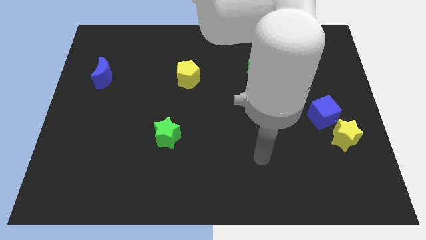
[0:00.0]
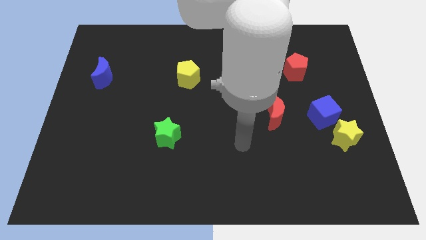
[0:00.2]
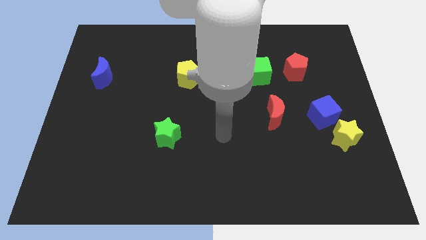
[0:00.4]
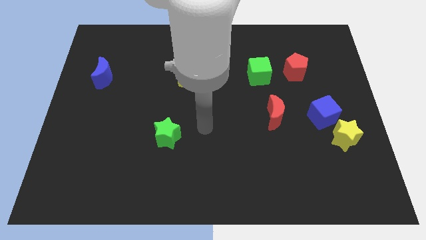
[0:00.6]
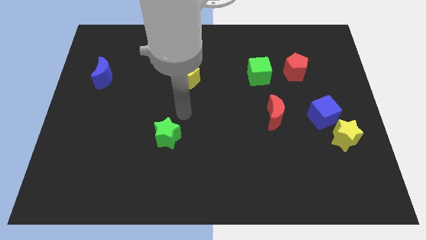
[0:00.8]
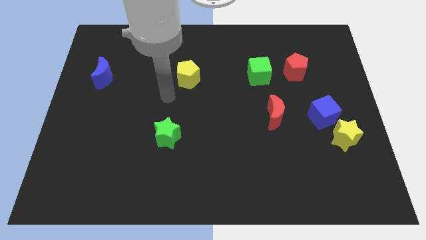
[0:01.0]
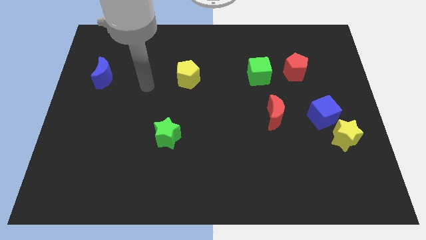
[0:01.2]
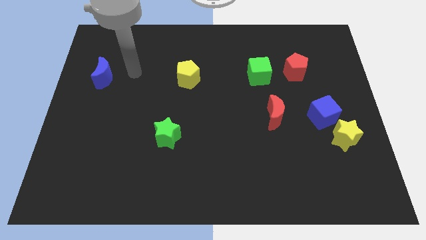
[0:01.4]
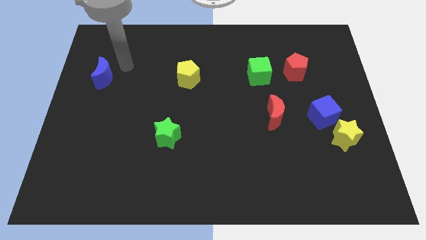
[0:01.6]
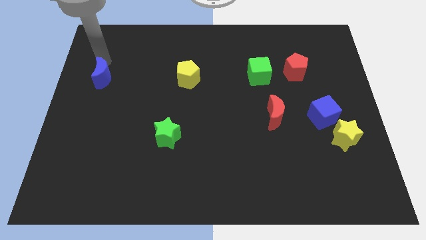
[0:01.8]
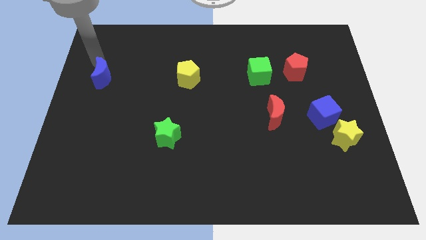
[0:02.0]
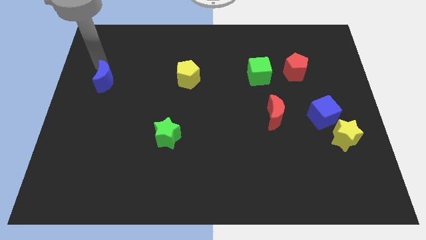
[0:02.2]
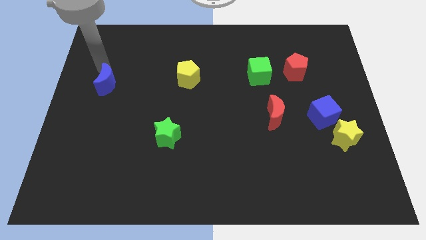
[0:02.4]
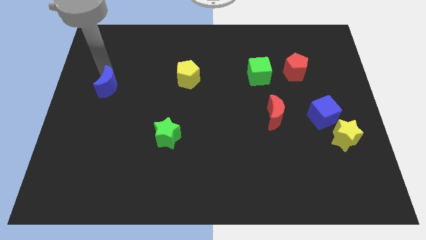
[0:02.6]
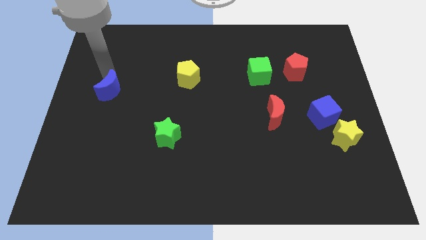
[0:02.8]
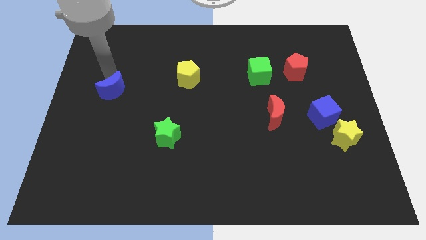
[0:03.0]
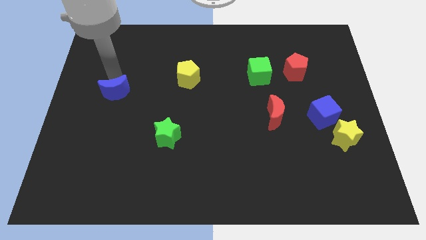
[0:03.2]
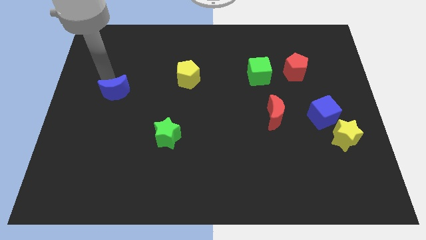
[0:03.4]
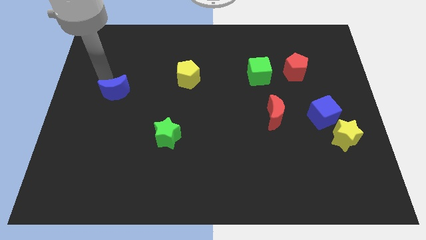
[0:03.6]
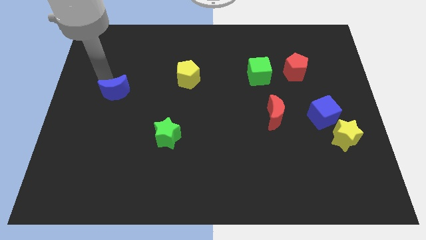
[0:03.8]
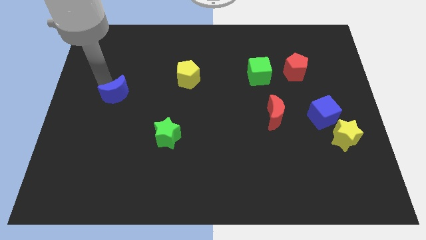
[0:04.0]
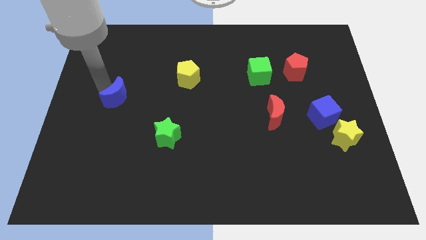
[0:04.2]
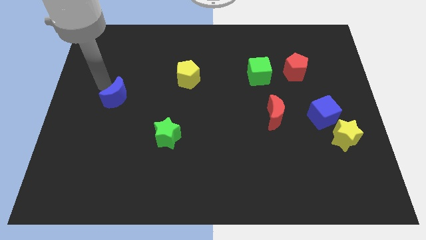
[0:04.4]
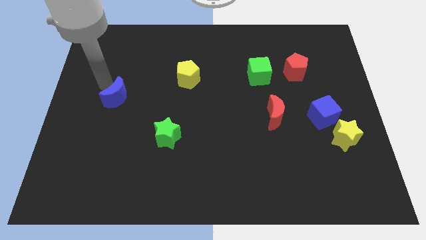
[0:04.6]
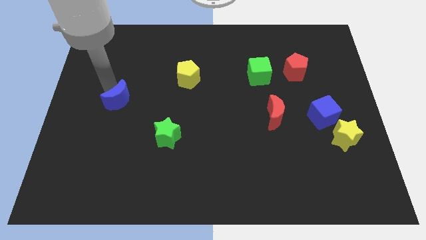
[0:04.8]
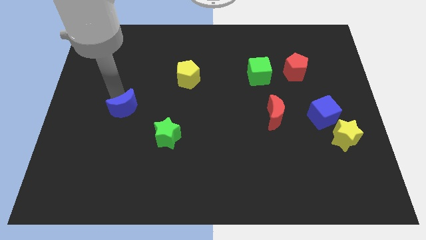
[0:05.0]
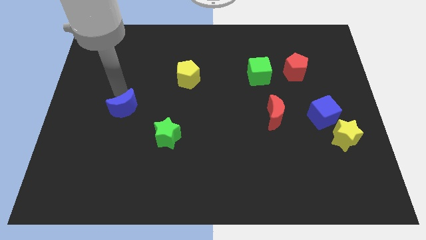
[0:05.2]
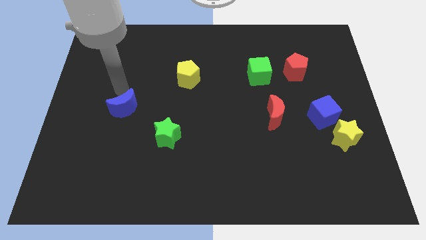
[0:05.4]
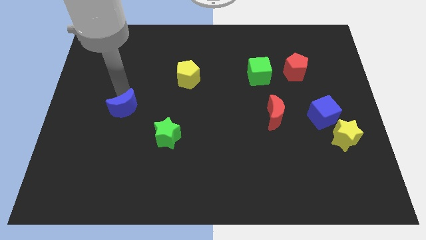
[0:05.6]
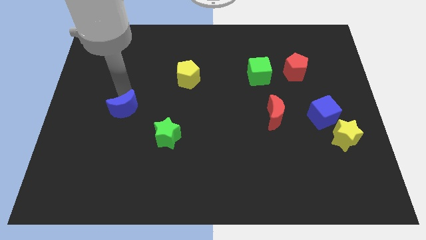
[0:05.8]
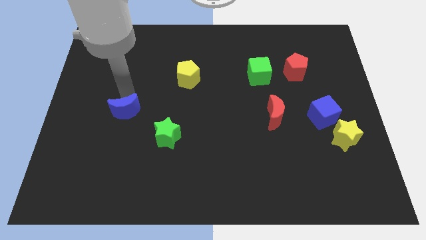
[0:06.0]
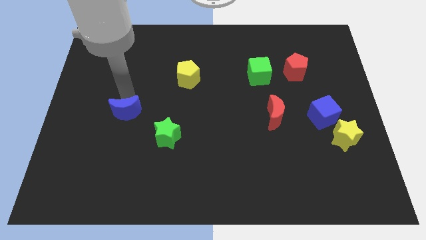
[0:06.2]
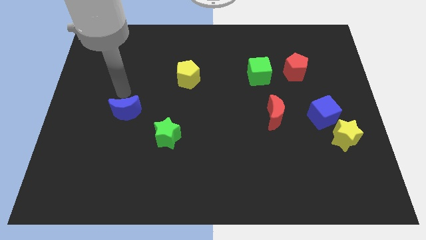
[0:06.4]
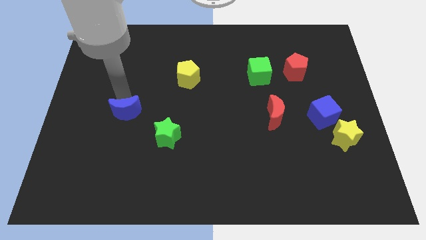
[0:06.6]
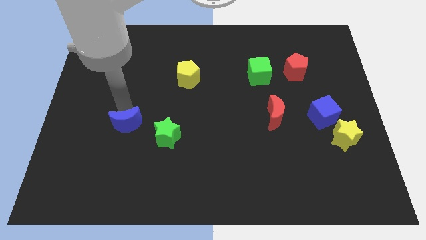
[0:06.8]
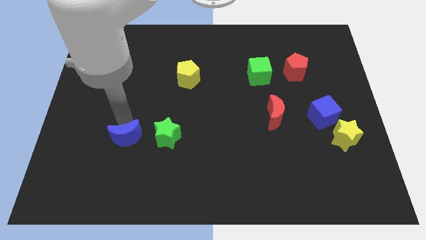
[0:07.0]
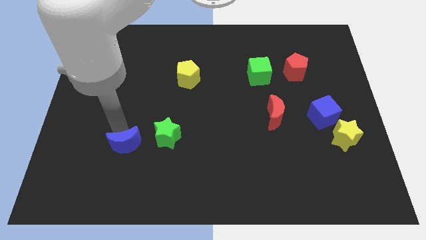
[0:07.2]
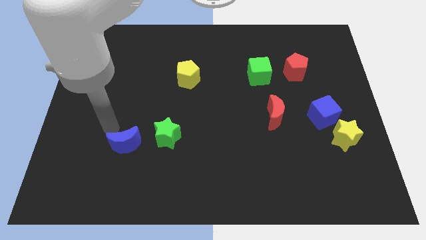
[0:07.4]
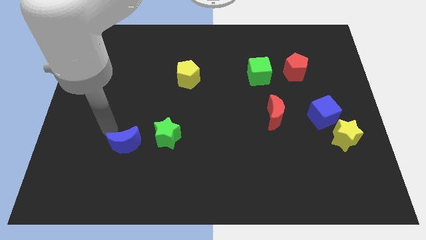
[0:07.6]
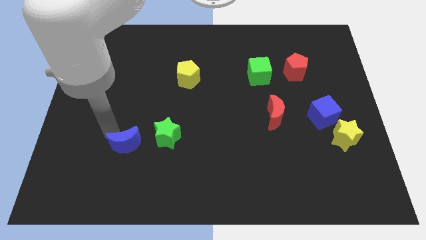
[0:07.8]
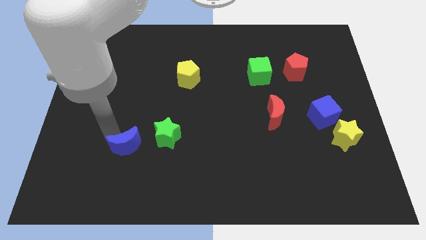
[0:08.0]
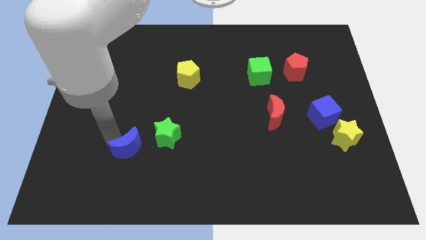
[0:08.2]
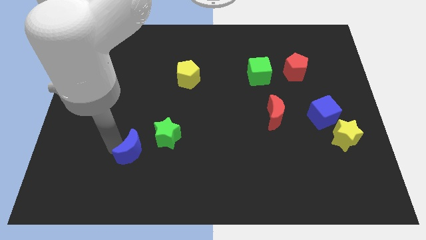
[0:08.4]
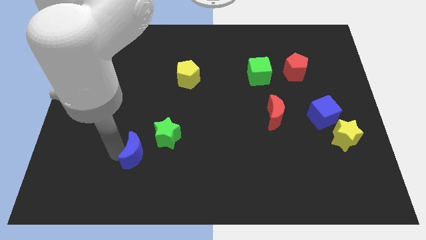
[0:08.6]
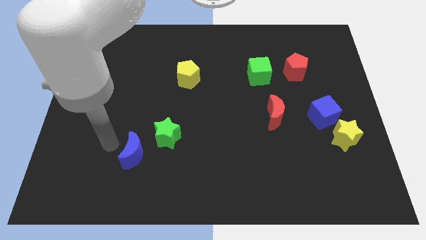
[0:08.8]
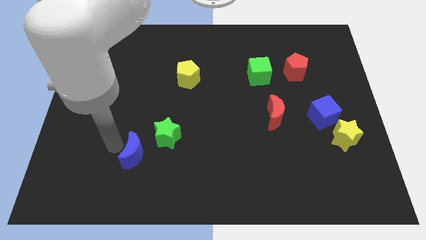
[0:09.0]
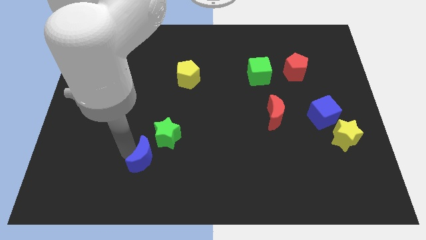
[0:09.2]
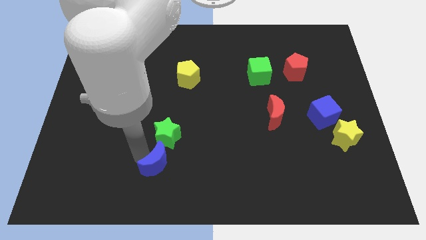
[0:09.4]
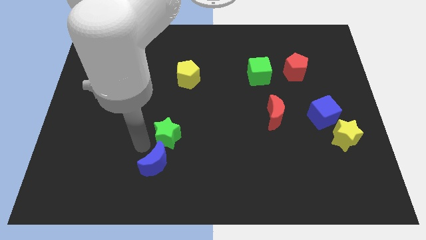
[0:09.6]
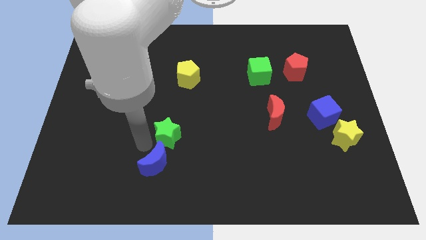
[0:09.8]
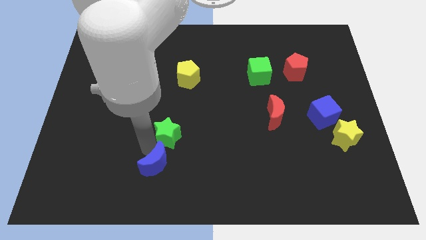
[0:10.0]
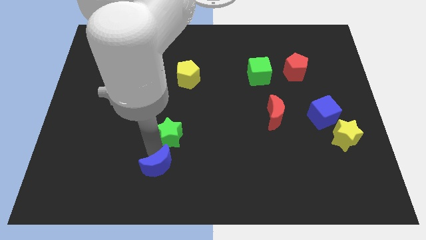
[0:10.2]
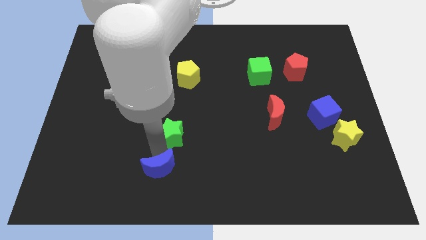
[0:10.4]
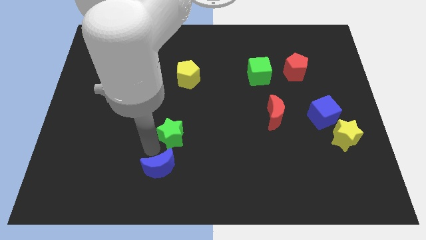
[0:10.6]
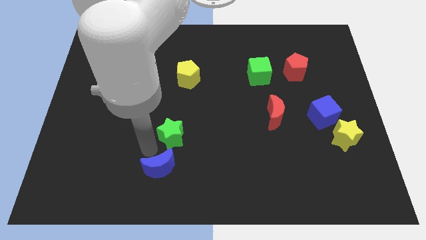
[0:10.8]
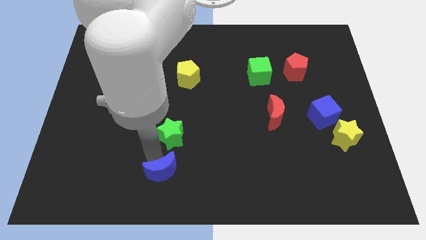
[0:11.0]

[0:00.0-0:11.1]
push the blue moon to the bottom
